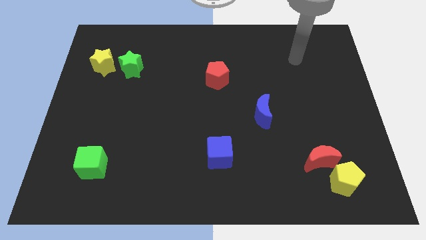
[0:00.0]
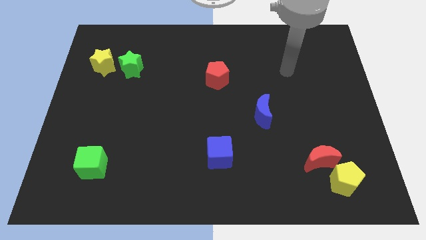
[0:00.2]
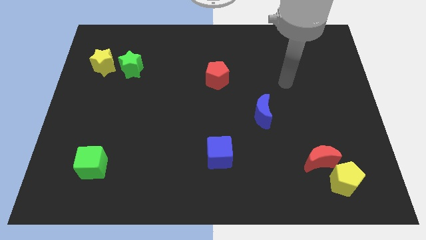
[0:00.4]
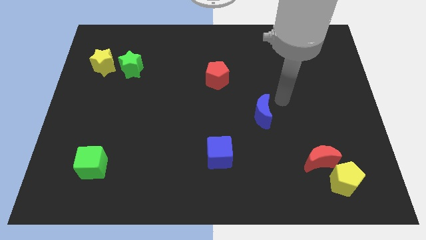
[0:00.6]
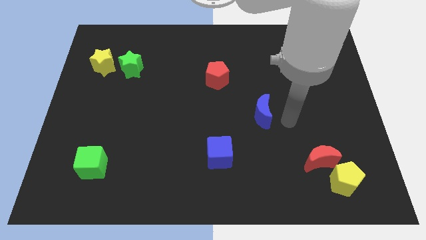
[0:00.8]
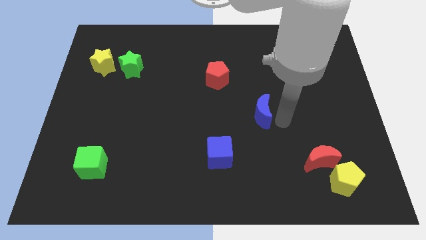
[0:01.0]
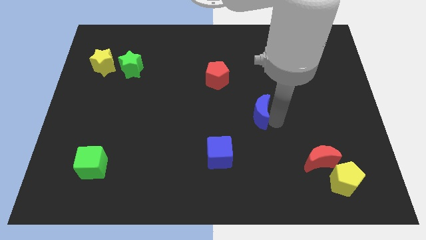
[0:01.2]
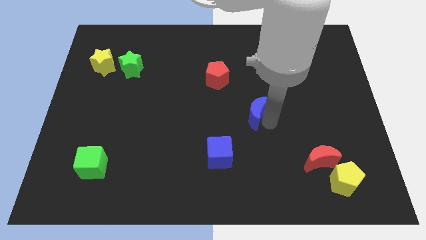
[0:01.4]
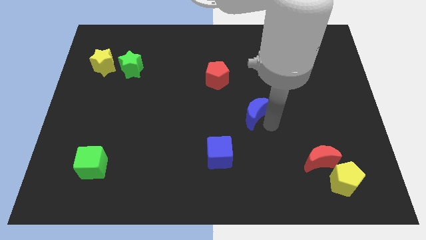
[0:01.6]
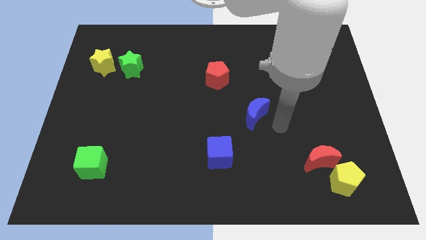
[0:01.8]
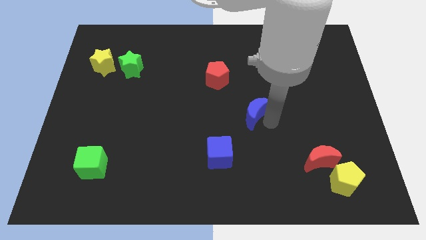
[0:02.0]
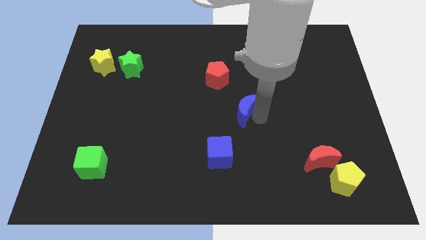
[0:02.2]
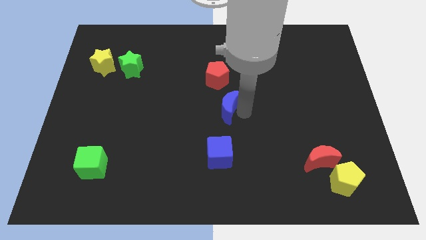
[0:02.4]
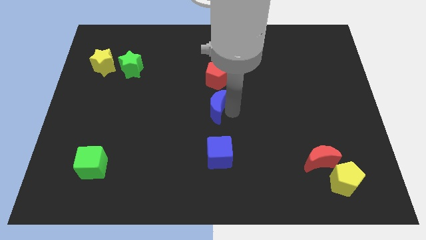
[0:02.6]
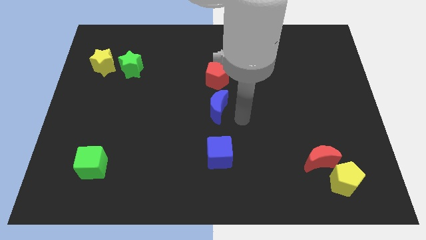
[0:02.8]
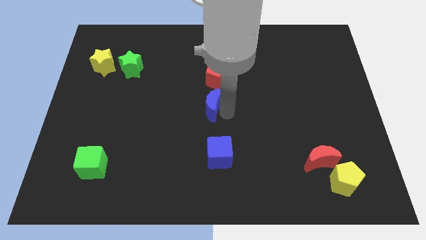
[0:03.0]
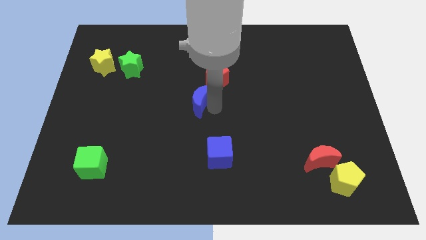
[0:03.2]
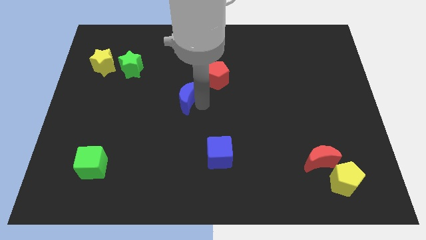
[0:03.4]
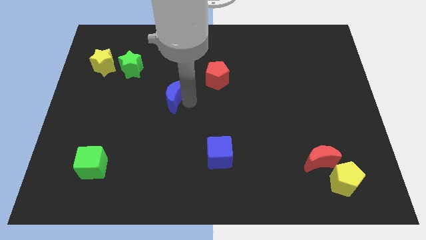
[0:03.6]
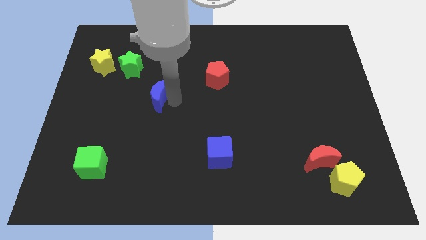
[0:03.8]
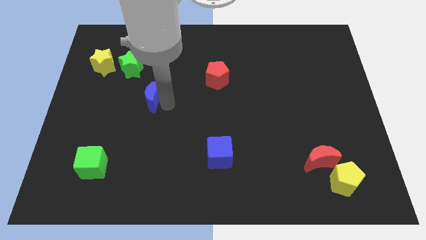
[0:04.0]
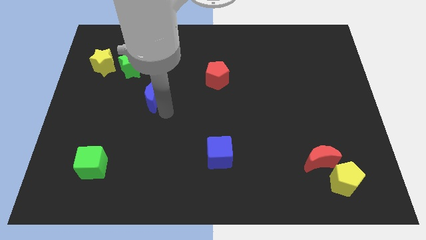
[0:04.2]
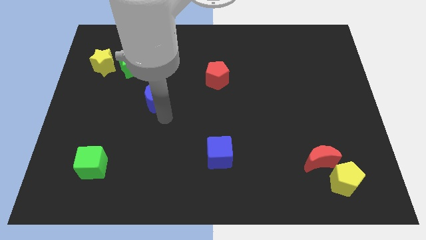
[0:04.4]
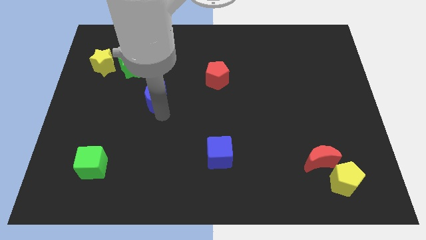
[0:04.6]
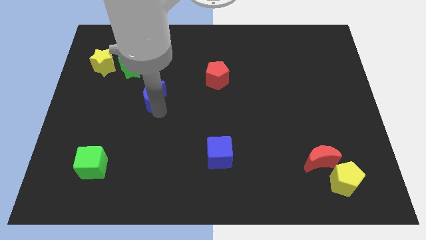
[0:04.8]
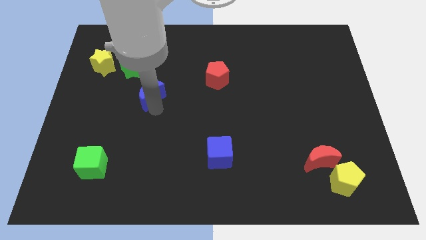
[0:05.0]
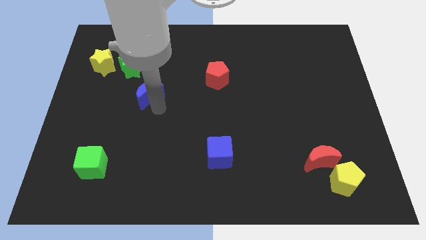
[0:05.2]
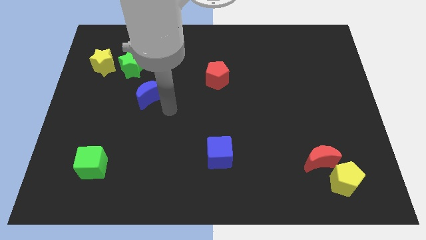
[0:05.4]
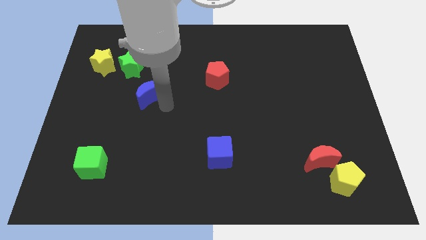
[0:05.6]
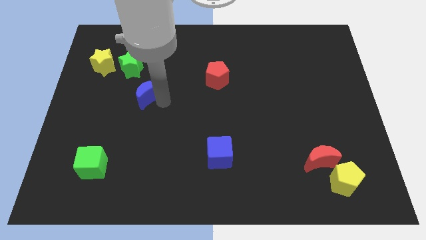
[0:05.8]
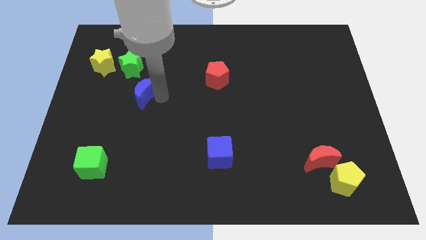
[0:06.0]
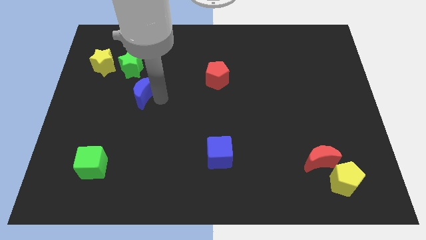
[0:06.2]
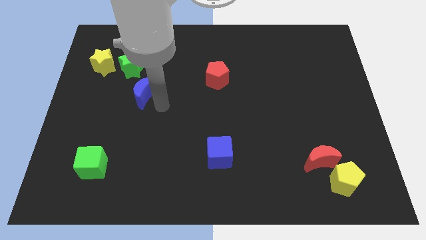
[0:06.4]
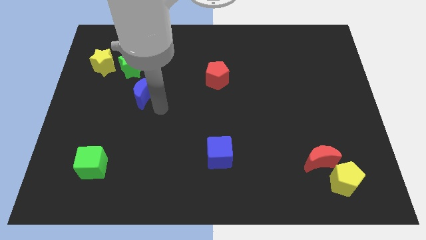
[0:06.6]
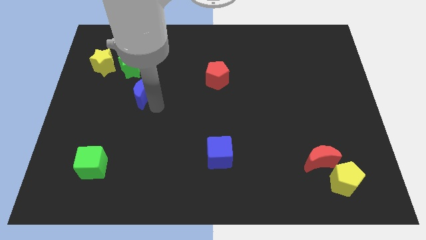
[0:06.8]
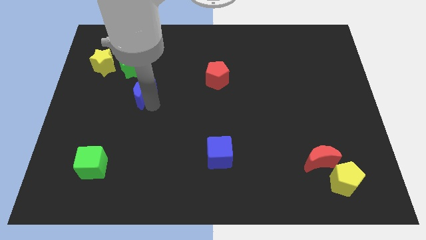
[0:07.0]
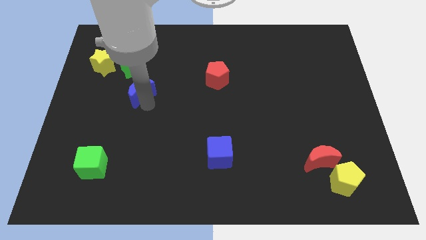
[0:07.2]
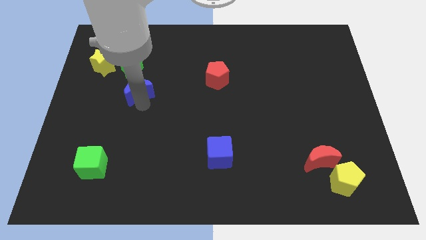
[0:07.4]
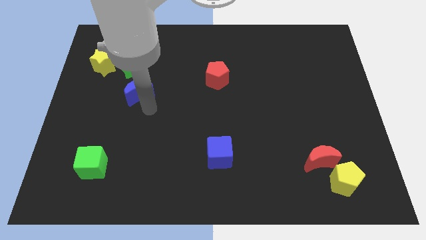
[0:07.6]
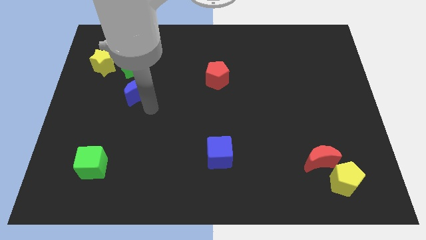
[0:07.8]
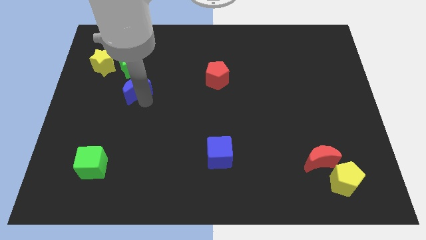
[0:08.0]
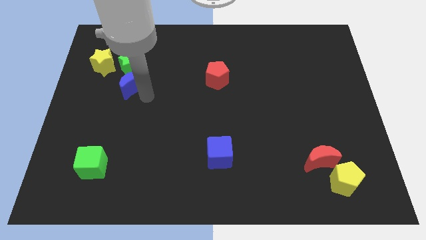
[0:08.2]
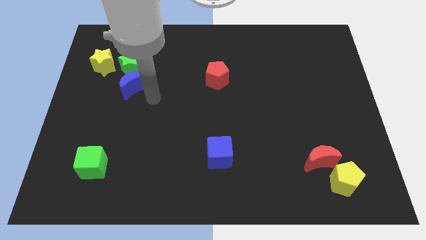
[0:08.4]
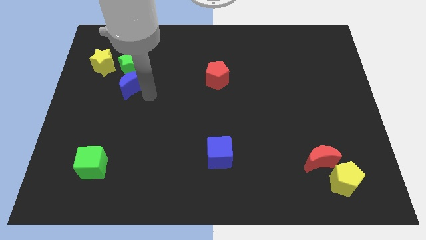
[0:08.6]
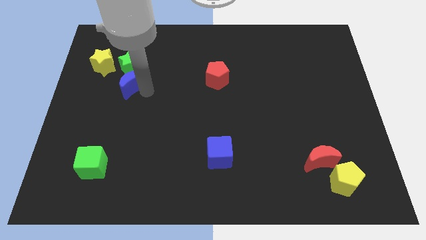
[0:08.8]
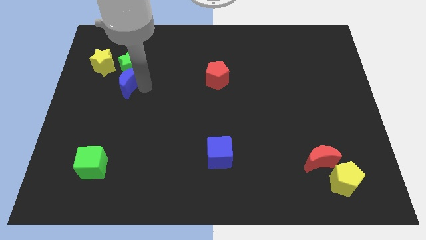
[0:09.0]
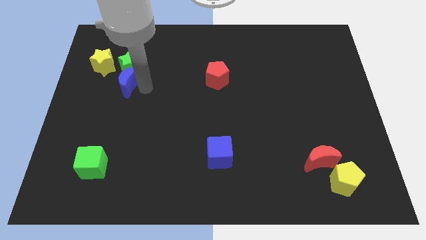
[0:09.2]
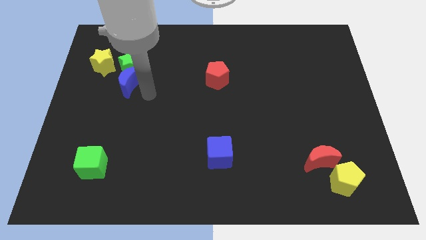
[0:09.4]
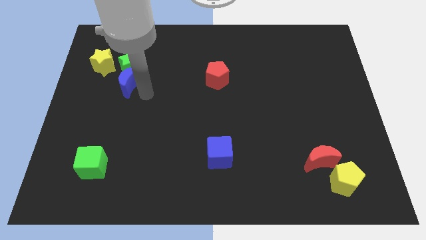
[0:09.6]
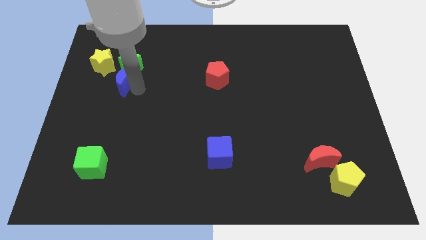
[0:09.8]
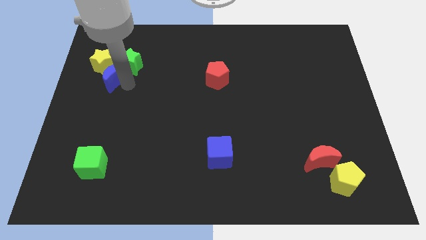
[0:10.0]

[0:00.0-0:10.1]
move the blue moon towards the yellow star
